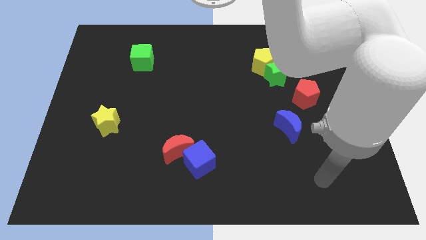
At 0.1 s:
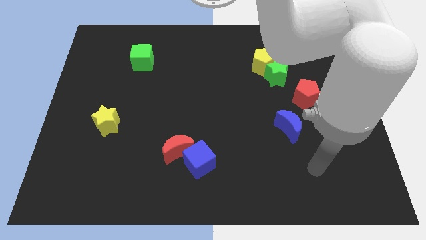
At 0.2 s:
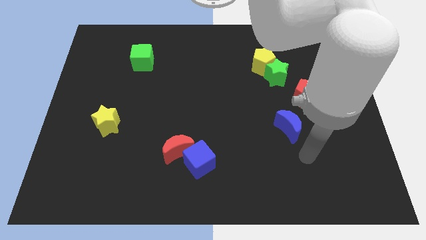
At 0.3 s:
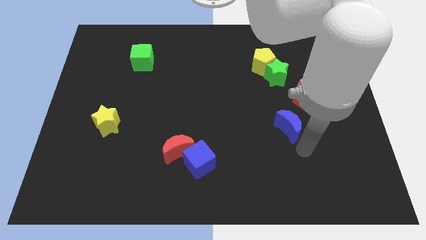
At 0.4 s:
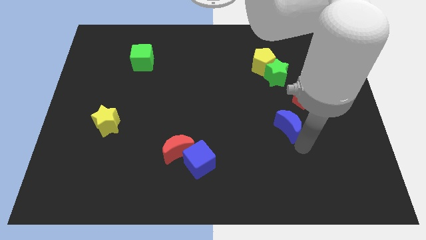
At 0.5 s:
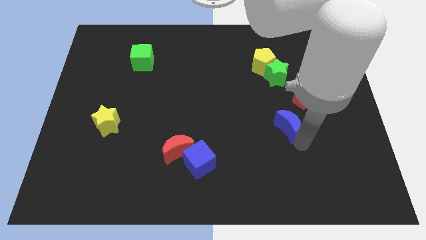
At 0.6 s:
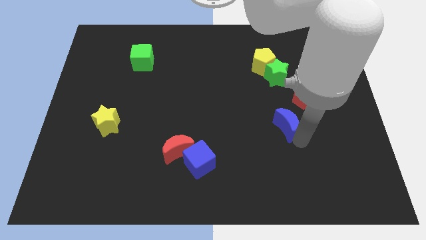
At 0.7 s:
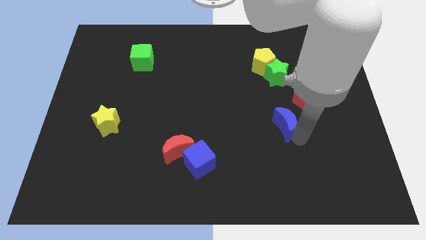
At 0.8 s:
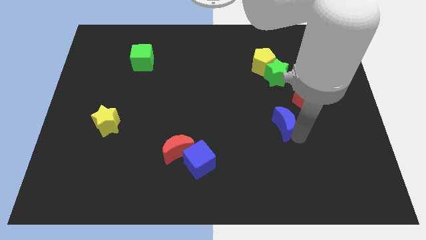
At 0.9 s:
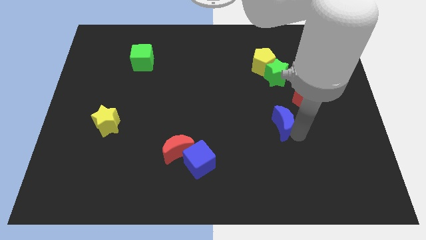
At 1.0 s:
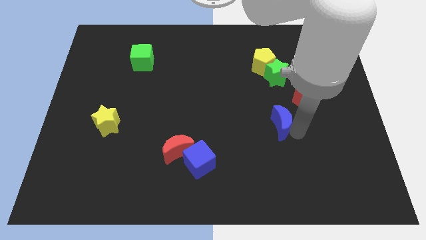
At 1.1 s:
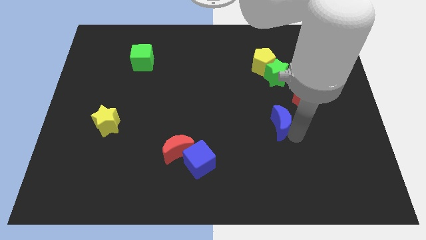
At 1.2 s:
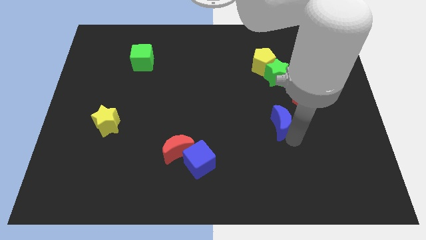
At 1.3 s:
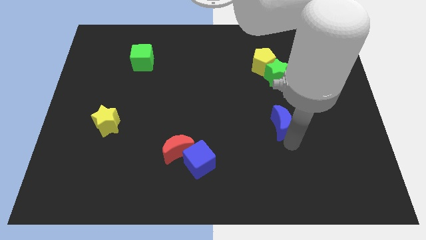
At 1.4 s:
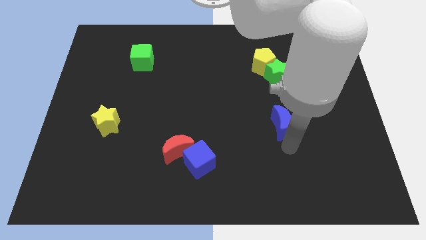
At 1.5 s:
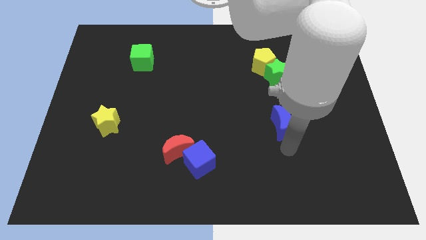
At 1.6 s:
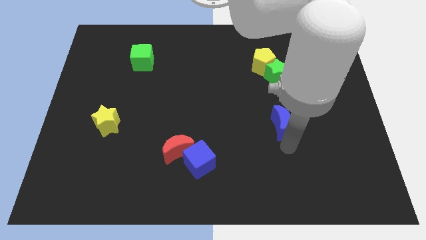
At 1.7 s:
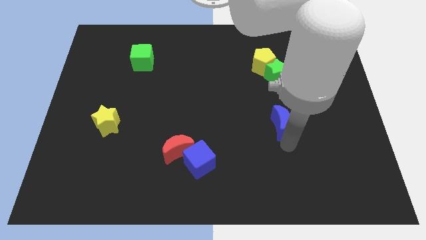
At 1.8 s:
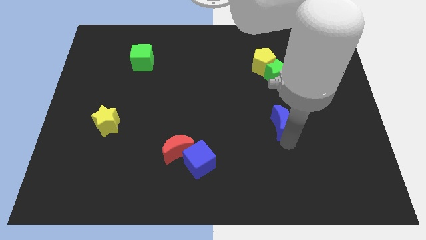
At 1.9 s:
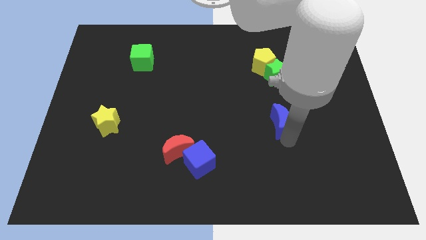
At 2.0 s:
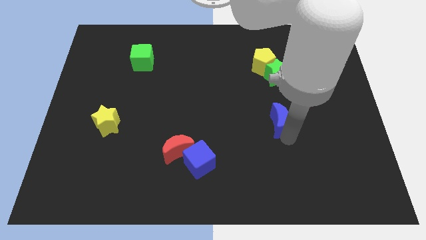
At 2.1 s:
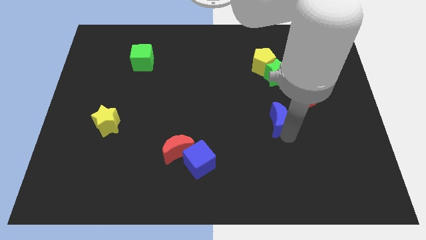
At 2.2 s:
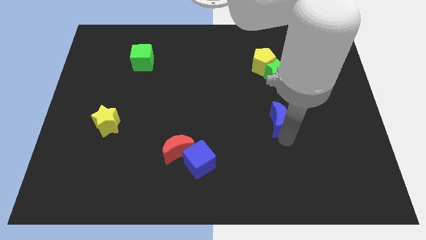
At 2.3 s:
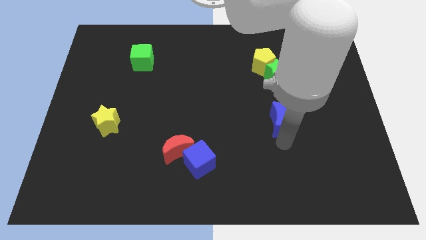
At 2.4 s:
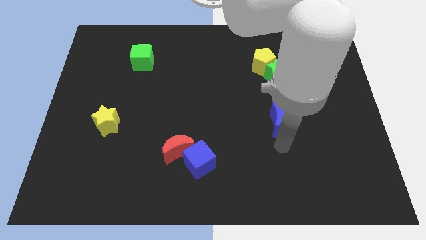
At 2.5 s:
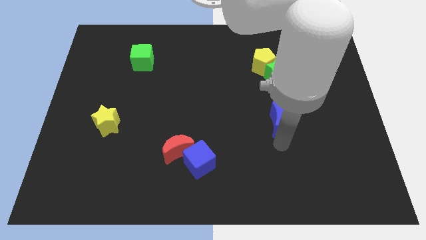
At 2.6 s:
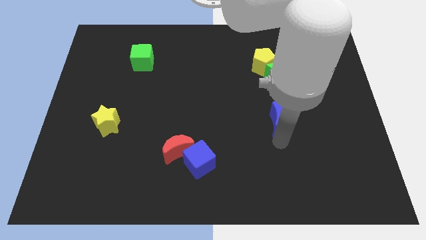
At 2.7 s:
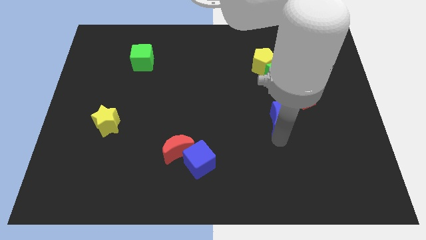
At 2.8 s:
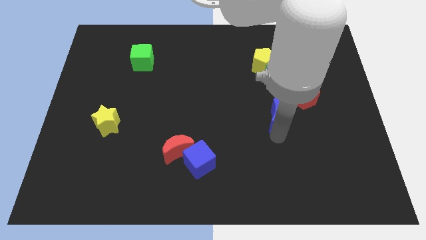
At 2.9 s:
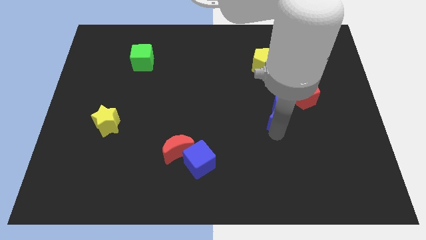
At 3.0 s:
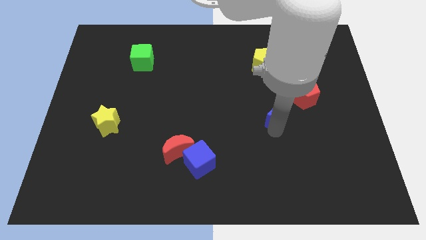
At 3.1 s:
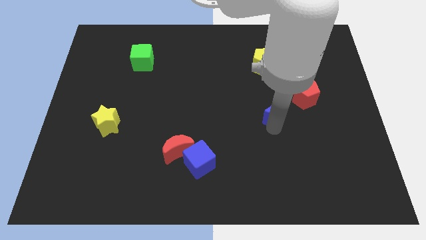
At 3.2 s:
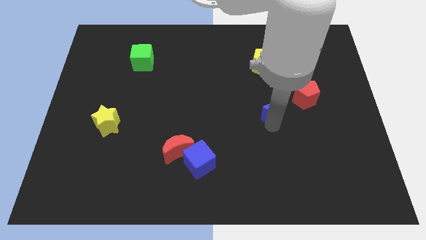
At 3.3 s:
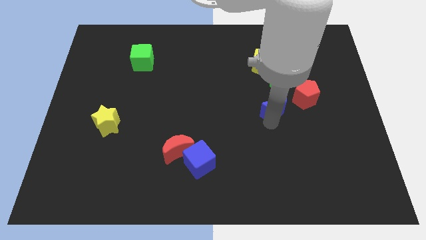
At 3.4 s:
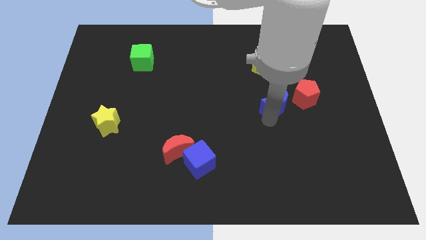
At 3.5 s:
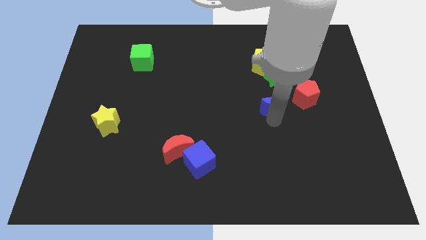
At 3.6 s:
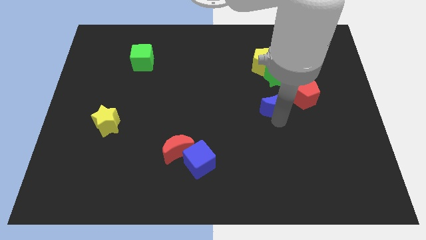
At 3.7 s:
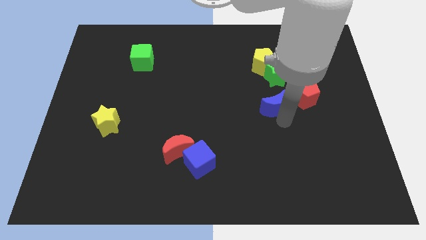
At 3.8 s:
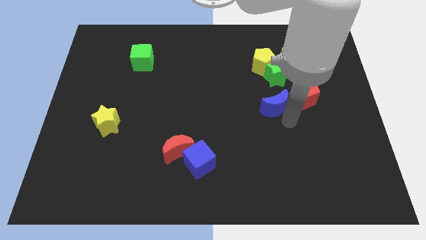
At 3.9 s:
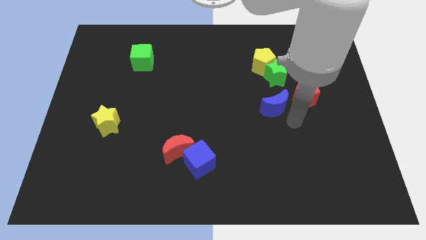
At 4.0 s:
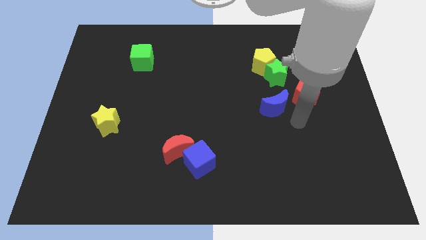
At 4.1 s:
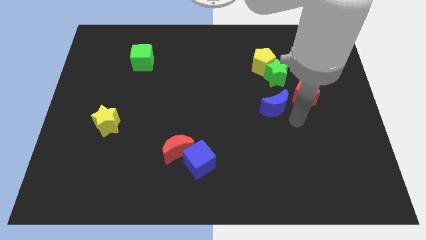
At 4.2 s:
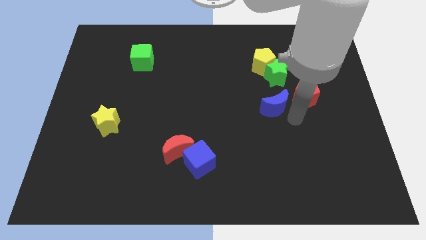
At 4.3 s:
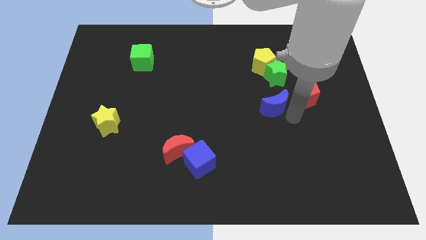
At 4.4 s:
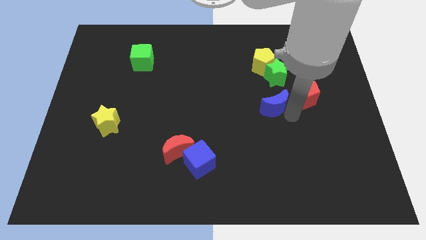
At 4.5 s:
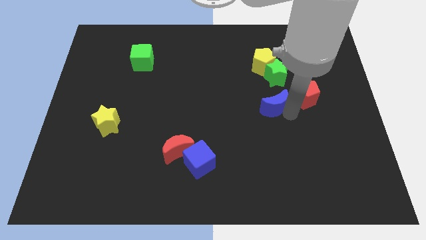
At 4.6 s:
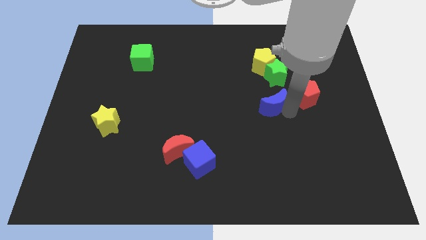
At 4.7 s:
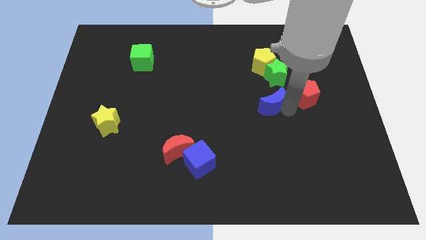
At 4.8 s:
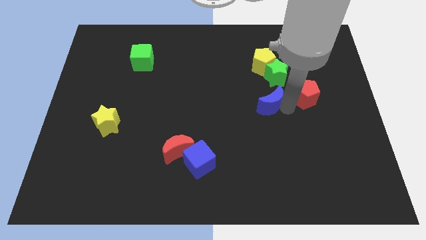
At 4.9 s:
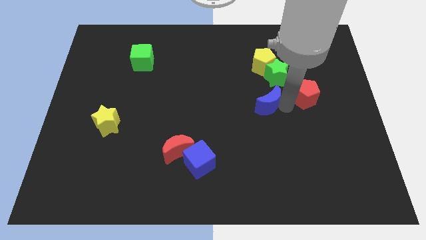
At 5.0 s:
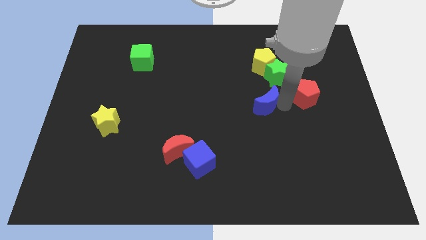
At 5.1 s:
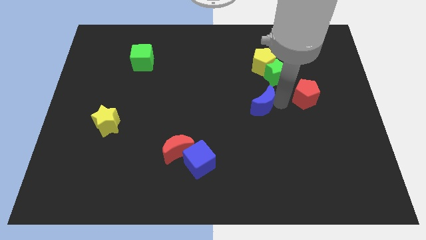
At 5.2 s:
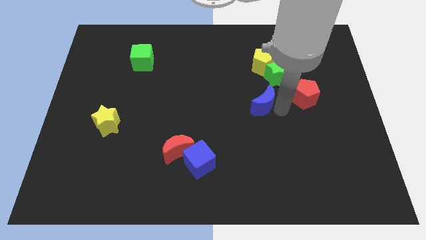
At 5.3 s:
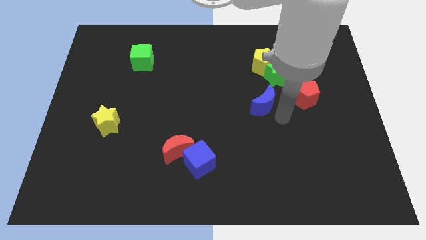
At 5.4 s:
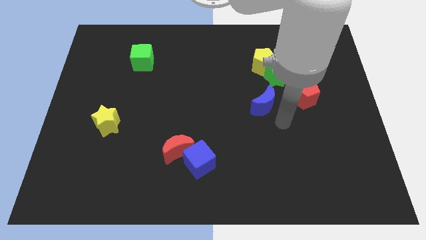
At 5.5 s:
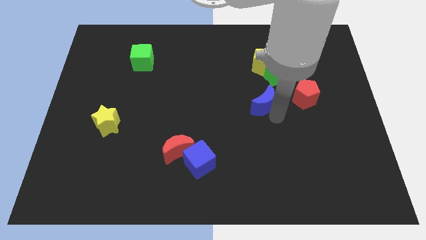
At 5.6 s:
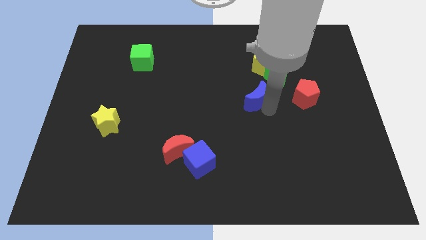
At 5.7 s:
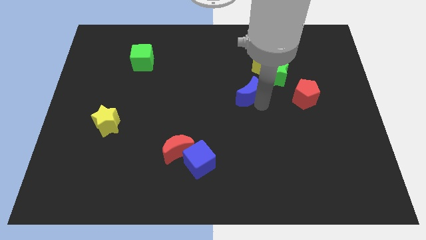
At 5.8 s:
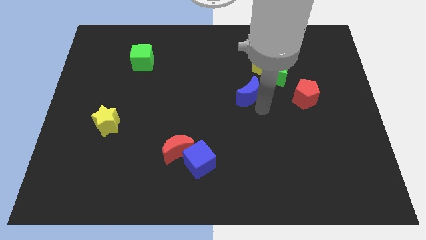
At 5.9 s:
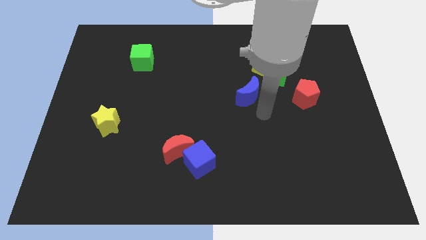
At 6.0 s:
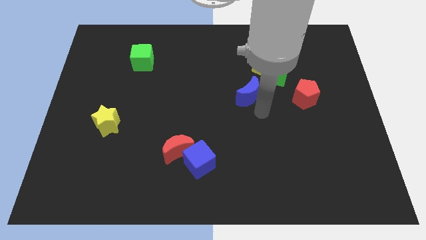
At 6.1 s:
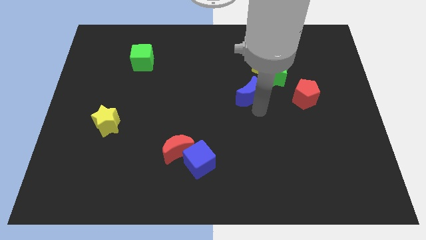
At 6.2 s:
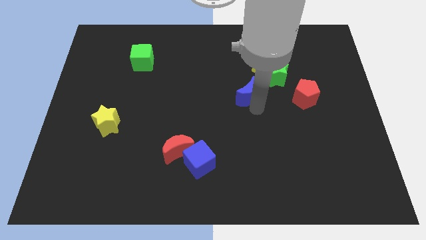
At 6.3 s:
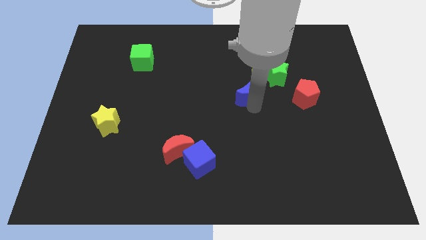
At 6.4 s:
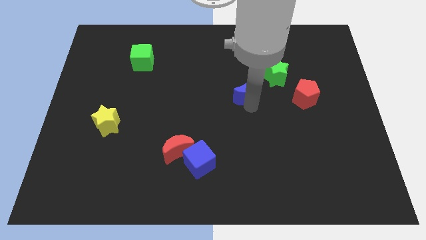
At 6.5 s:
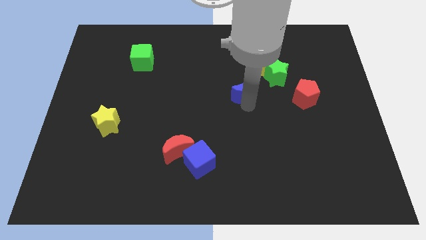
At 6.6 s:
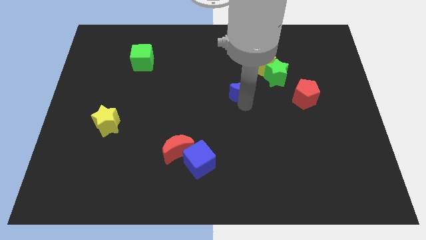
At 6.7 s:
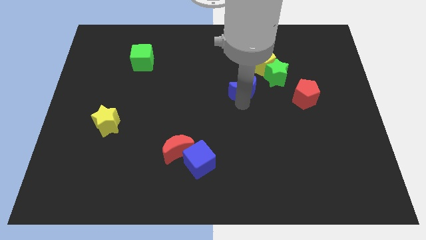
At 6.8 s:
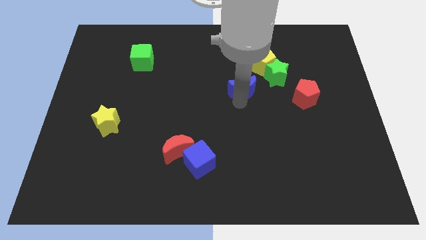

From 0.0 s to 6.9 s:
move the blue moon left of the green star
